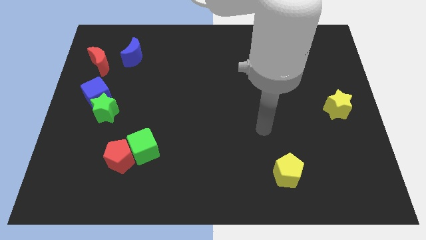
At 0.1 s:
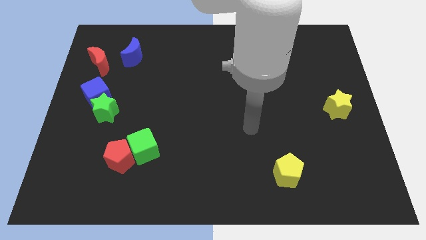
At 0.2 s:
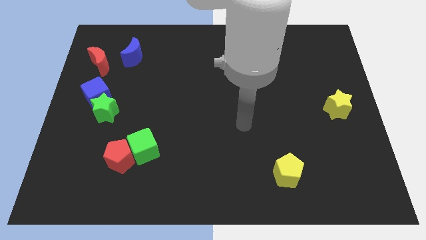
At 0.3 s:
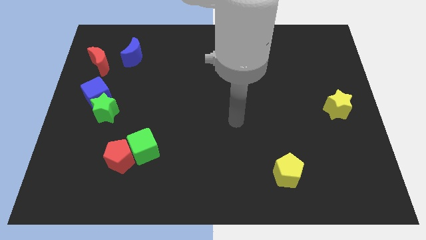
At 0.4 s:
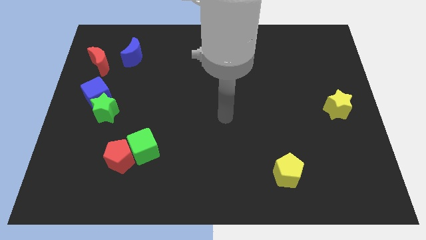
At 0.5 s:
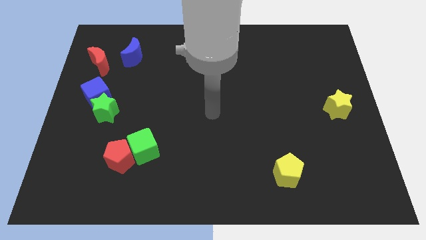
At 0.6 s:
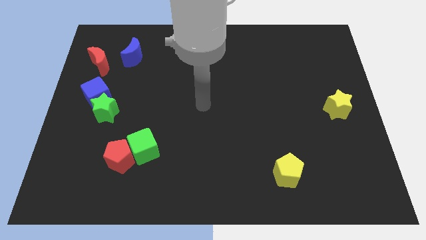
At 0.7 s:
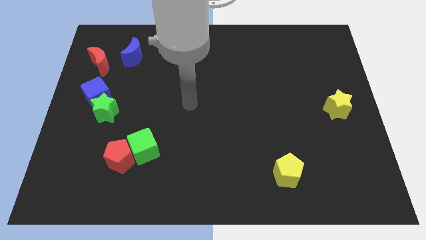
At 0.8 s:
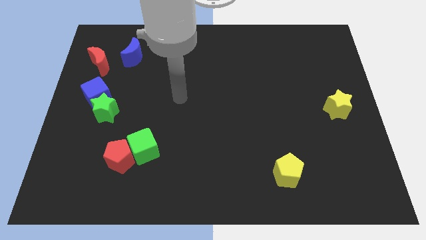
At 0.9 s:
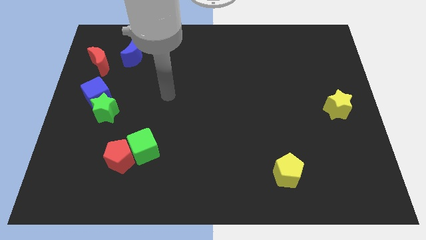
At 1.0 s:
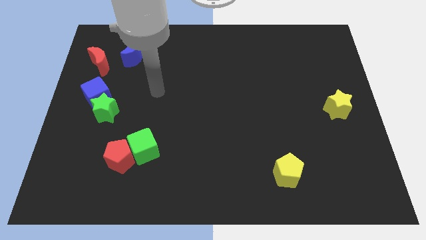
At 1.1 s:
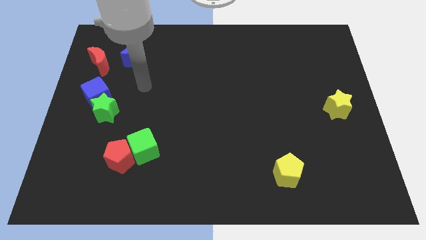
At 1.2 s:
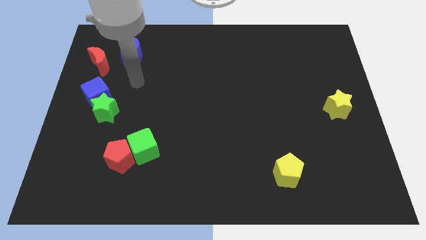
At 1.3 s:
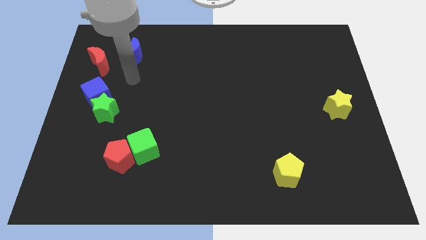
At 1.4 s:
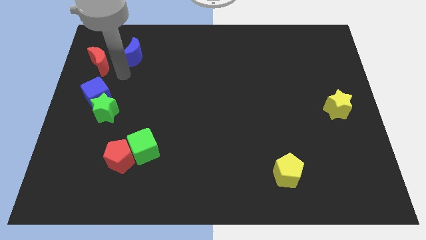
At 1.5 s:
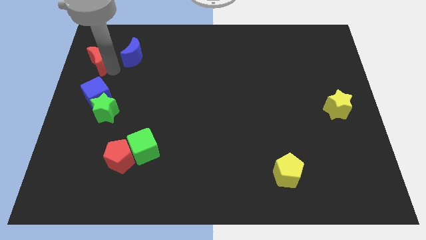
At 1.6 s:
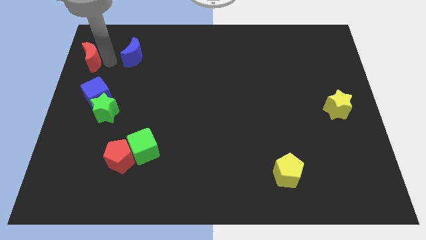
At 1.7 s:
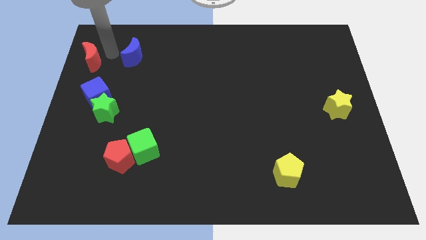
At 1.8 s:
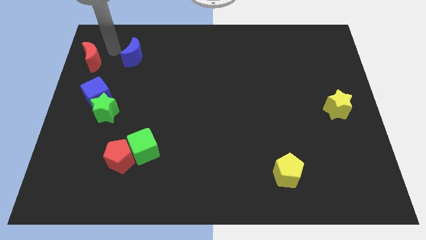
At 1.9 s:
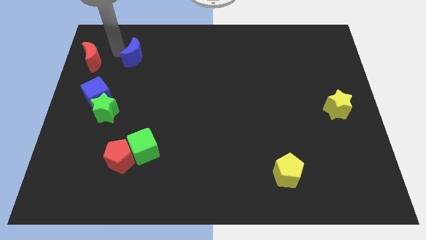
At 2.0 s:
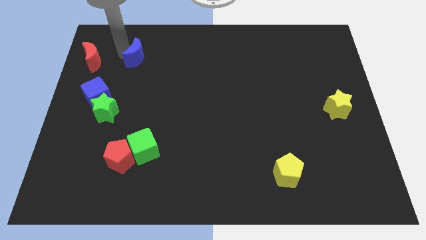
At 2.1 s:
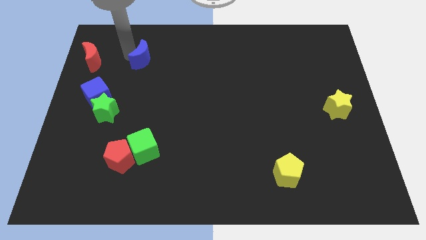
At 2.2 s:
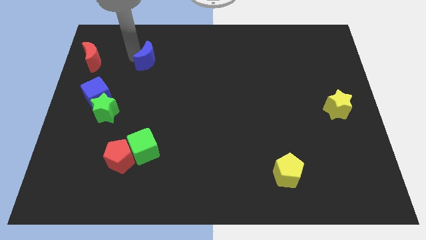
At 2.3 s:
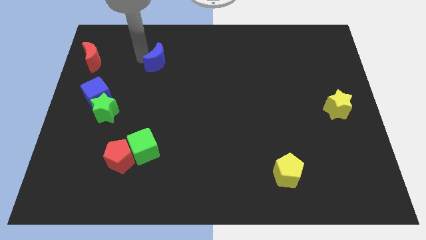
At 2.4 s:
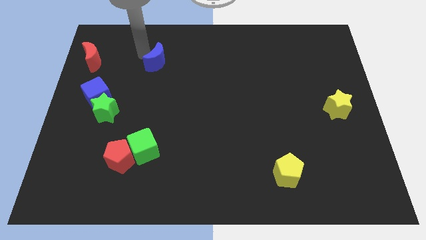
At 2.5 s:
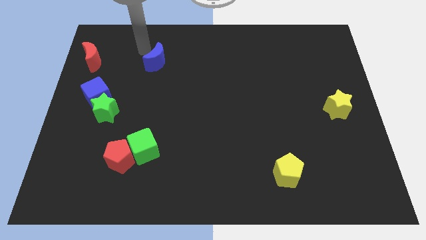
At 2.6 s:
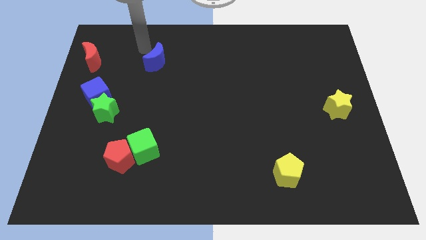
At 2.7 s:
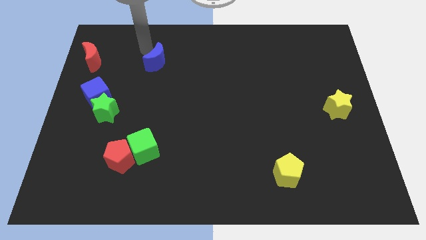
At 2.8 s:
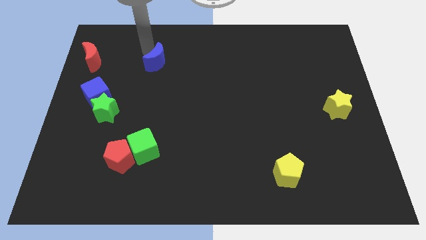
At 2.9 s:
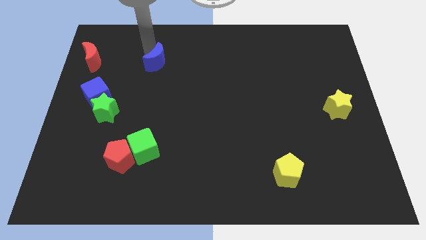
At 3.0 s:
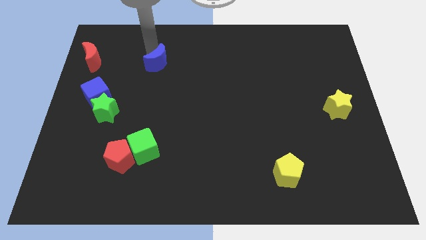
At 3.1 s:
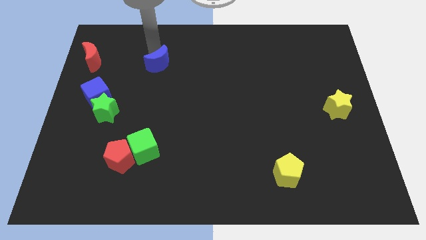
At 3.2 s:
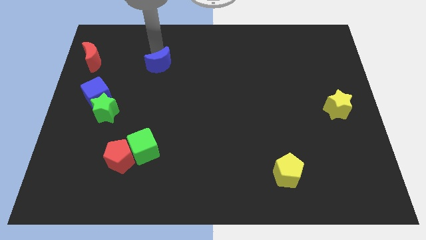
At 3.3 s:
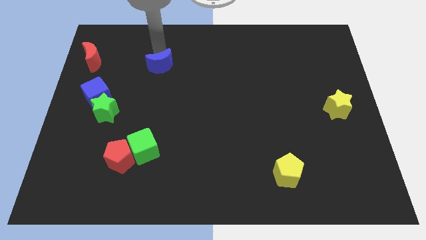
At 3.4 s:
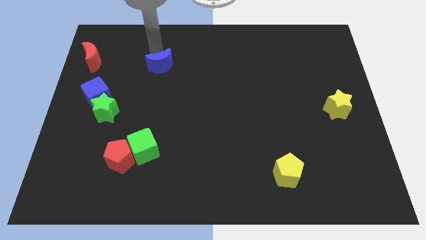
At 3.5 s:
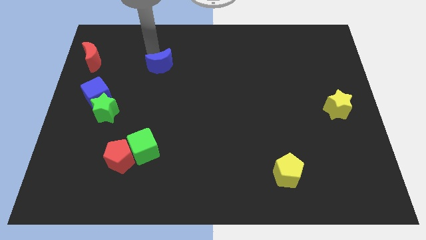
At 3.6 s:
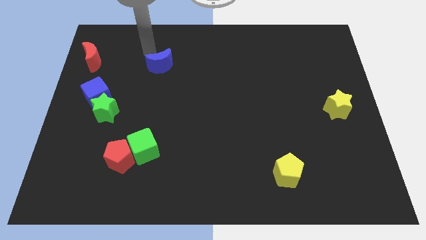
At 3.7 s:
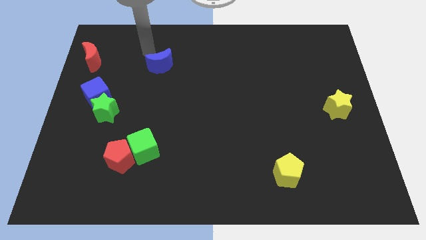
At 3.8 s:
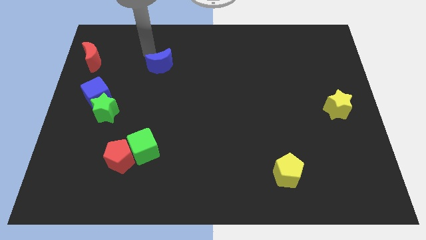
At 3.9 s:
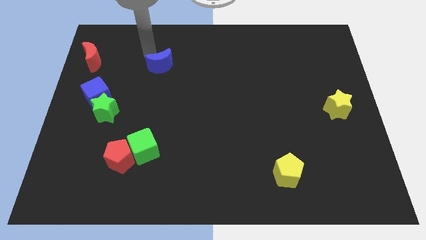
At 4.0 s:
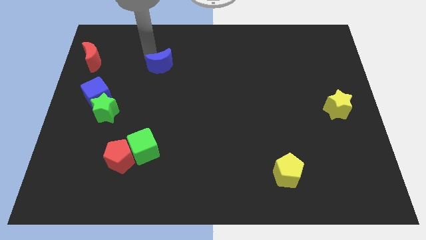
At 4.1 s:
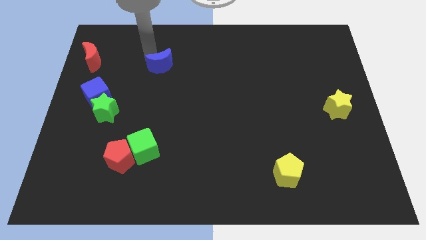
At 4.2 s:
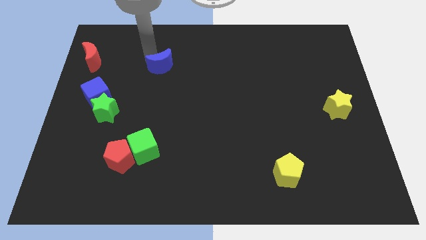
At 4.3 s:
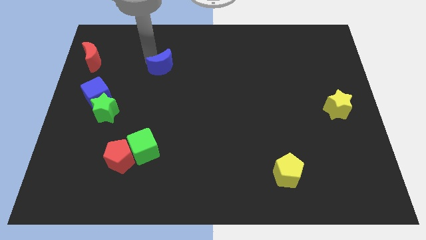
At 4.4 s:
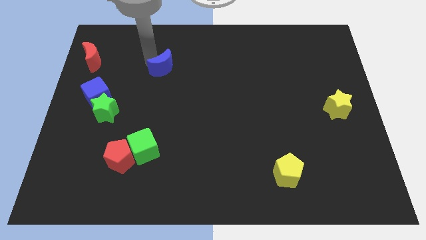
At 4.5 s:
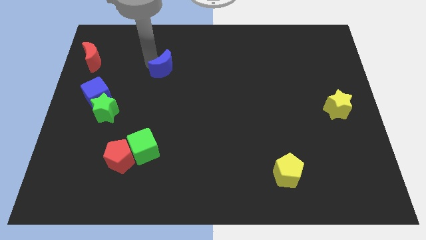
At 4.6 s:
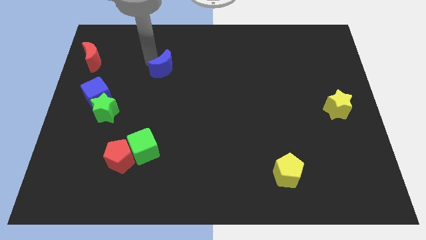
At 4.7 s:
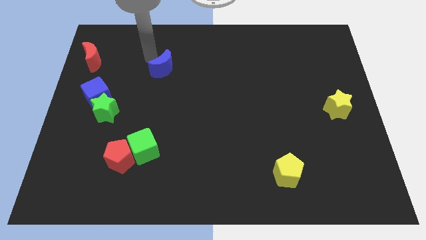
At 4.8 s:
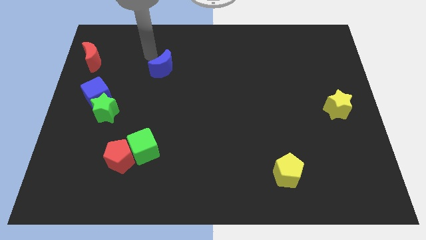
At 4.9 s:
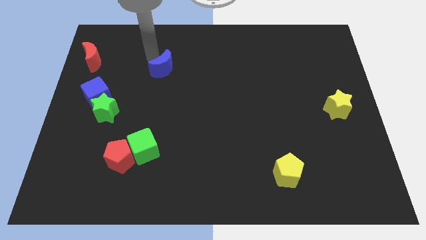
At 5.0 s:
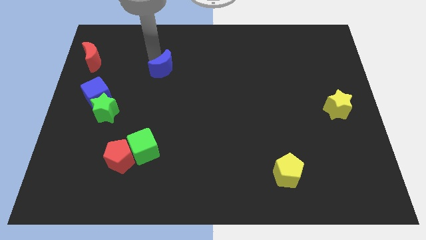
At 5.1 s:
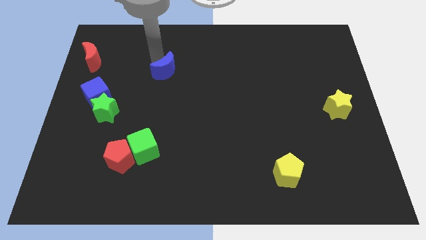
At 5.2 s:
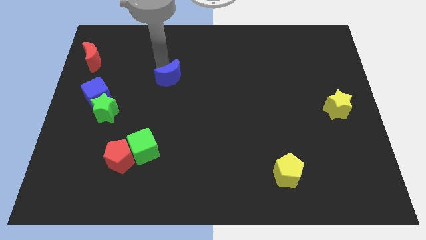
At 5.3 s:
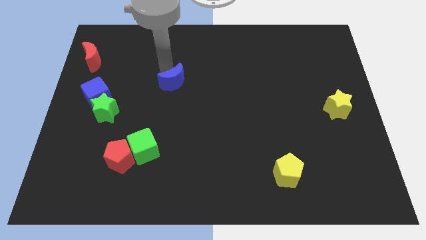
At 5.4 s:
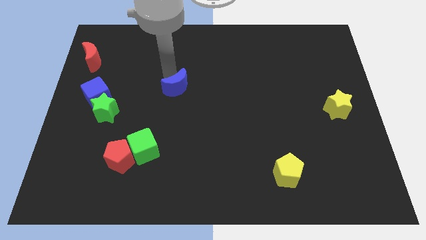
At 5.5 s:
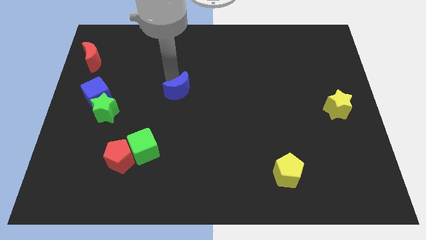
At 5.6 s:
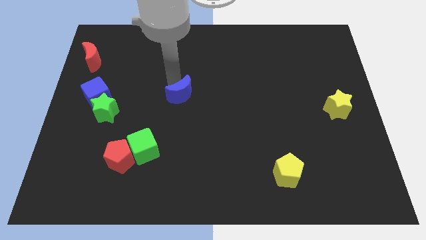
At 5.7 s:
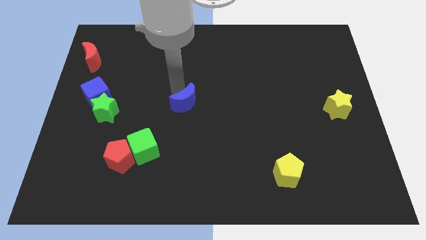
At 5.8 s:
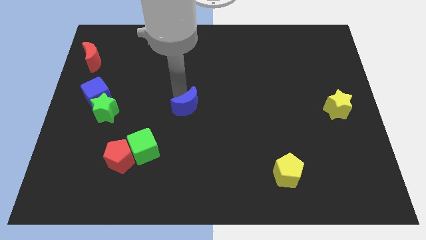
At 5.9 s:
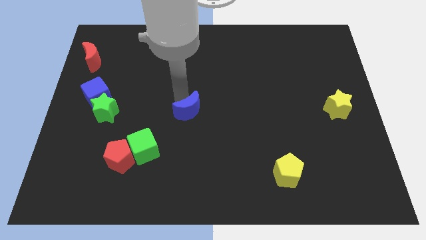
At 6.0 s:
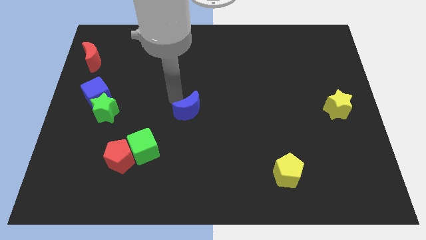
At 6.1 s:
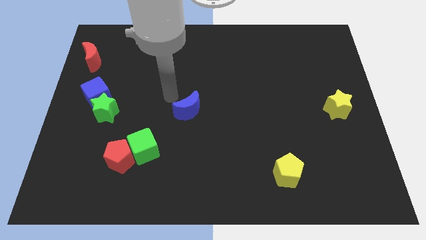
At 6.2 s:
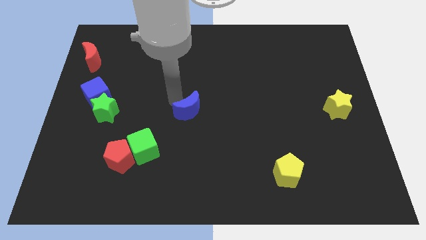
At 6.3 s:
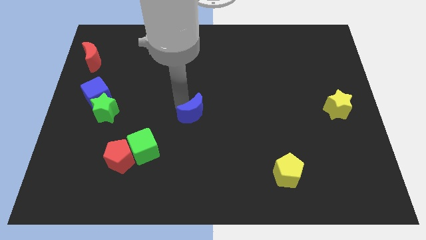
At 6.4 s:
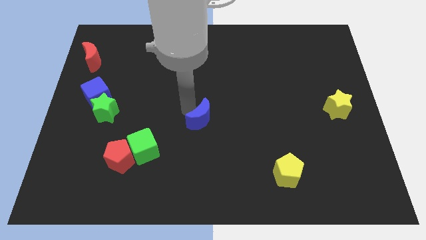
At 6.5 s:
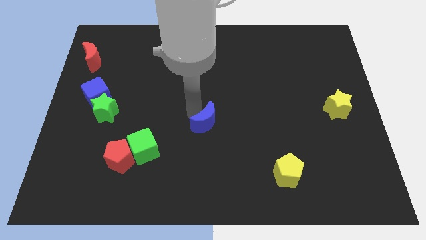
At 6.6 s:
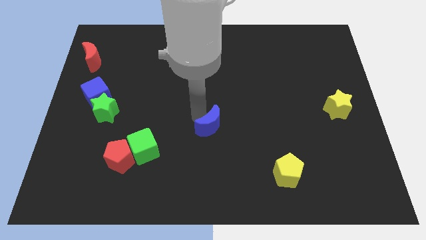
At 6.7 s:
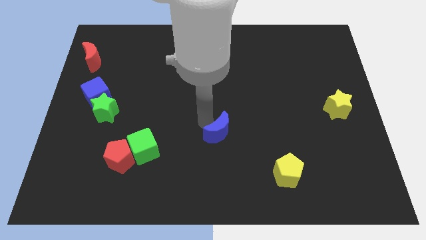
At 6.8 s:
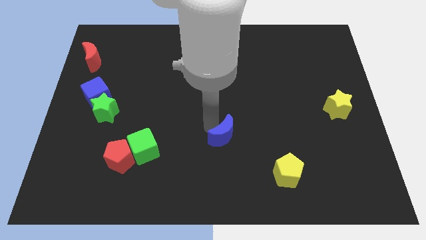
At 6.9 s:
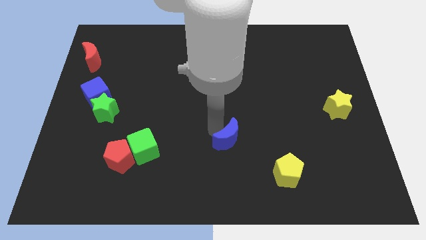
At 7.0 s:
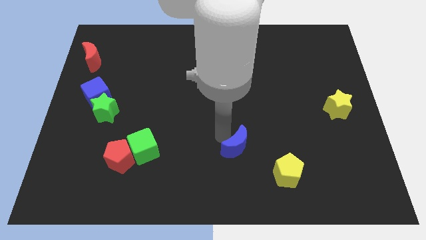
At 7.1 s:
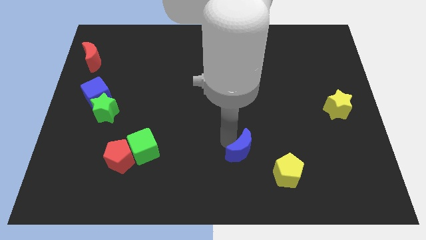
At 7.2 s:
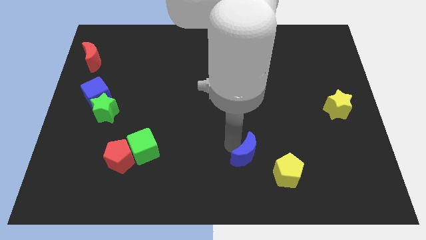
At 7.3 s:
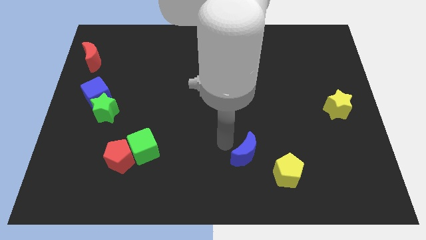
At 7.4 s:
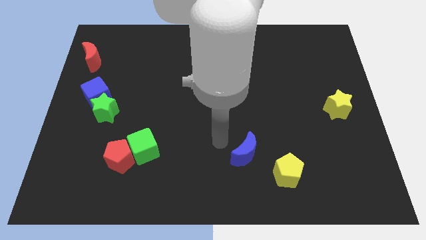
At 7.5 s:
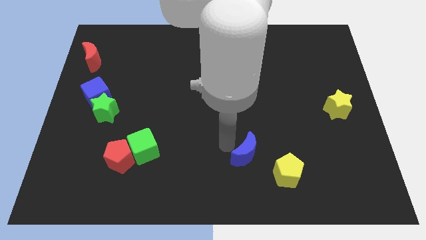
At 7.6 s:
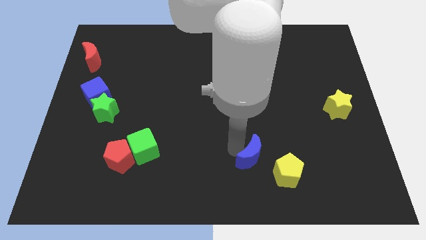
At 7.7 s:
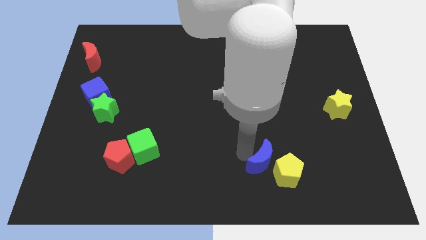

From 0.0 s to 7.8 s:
put the blue moon close to the yellow pentagon
